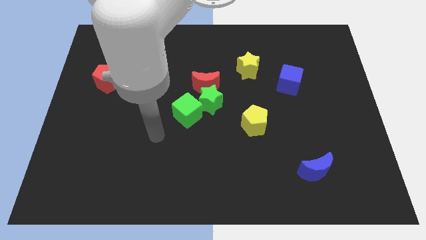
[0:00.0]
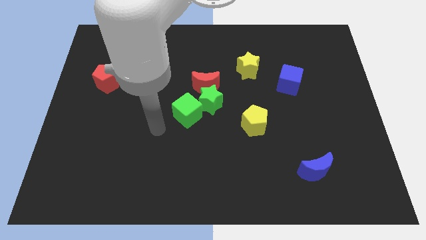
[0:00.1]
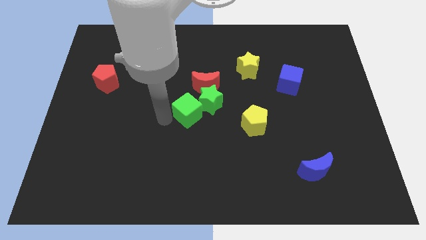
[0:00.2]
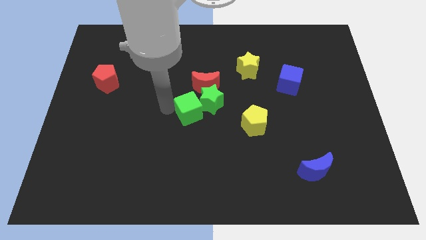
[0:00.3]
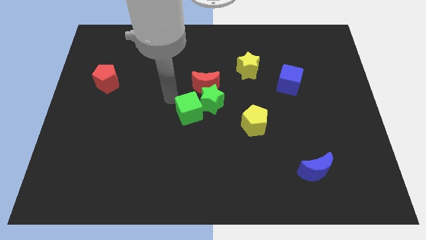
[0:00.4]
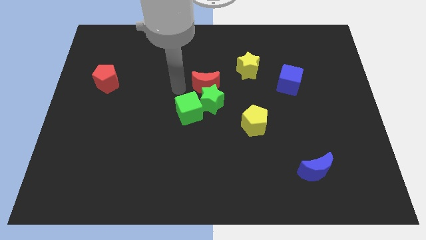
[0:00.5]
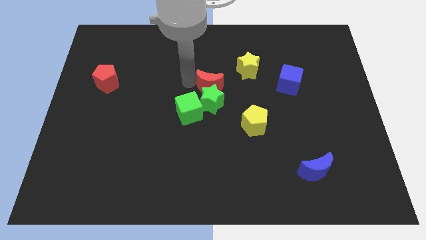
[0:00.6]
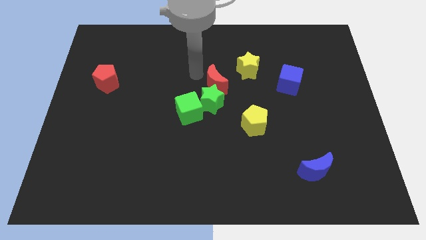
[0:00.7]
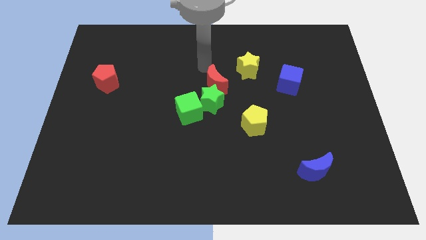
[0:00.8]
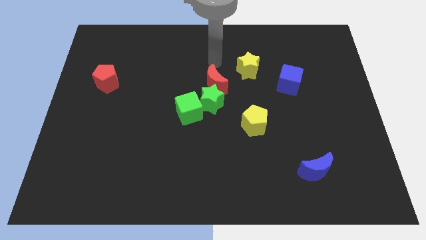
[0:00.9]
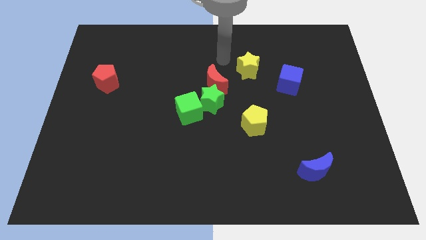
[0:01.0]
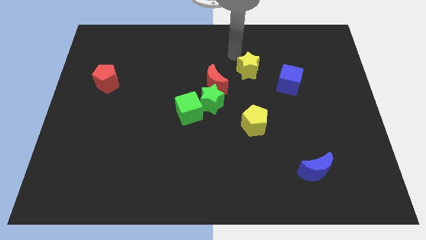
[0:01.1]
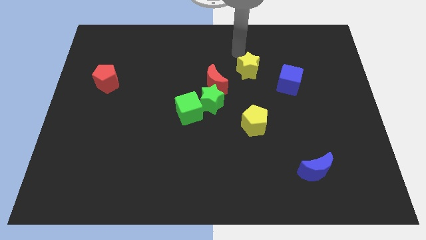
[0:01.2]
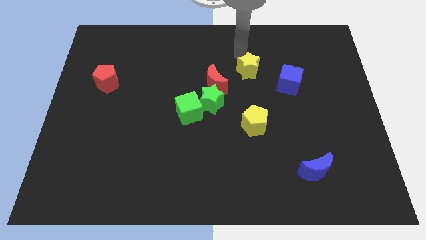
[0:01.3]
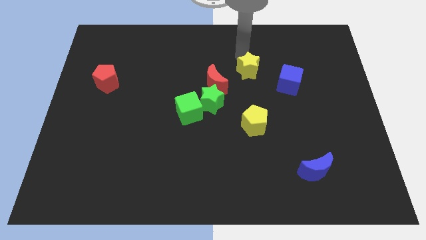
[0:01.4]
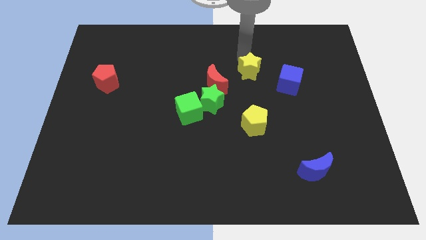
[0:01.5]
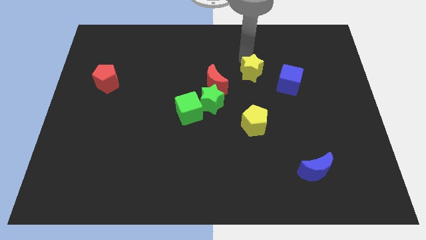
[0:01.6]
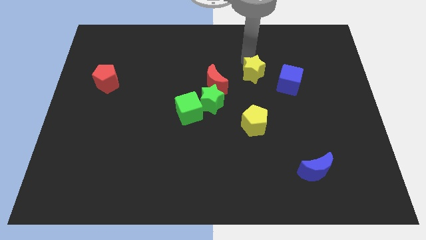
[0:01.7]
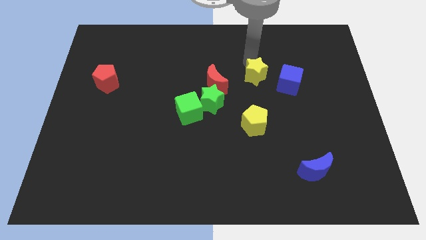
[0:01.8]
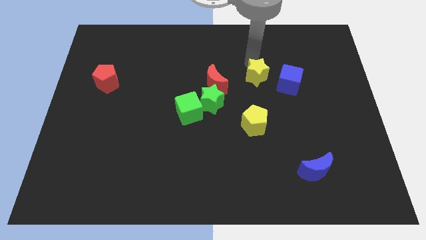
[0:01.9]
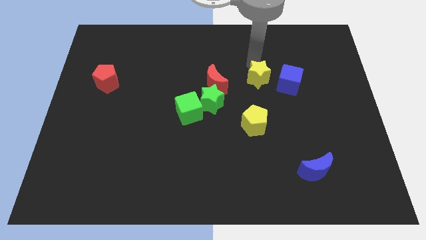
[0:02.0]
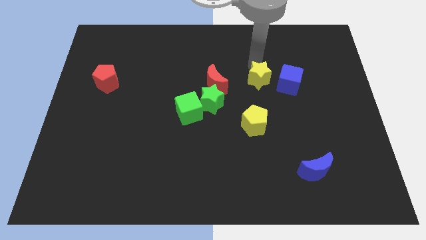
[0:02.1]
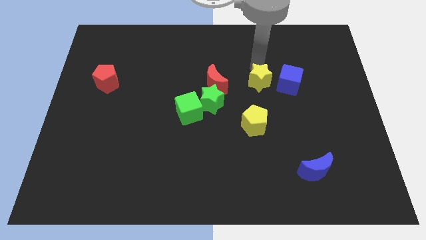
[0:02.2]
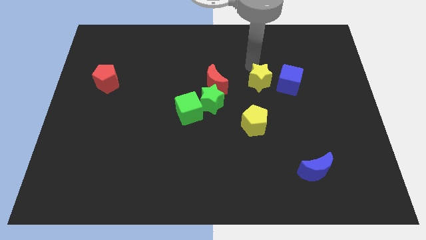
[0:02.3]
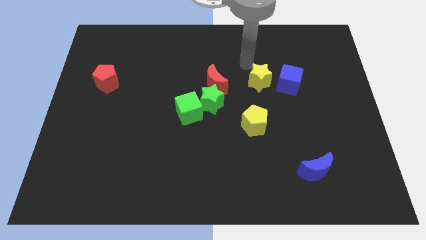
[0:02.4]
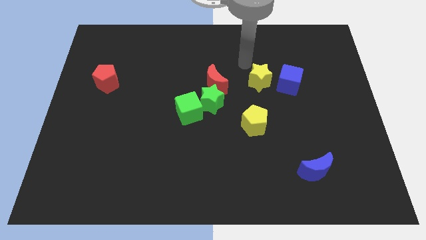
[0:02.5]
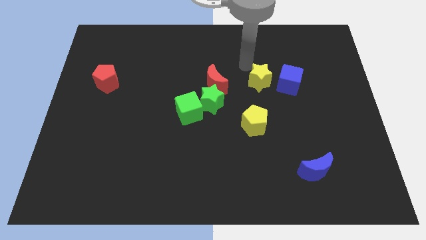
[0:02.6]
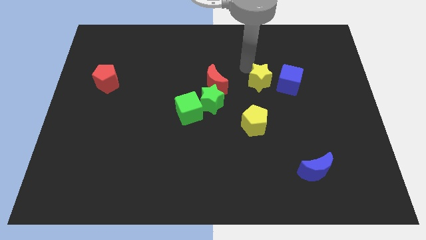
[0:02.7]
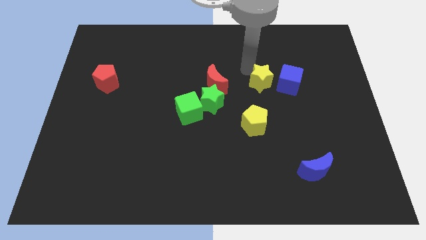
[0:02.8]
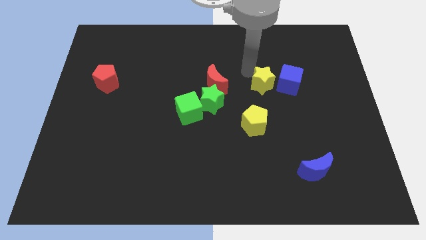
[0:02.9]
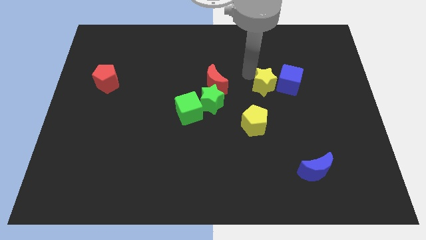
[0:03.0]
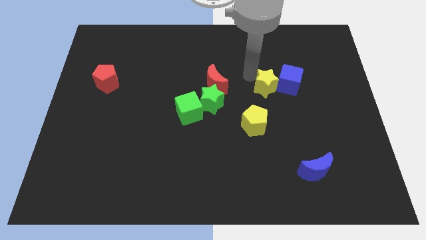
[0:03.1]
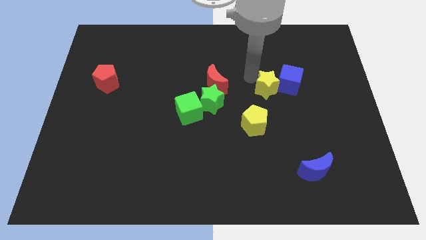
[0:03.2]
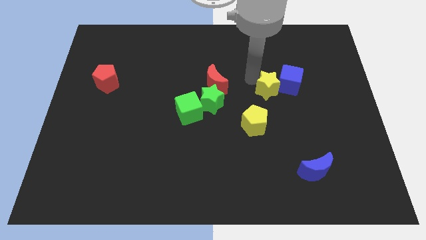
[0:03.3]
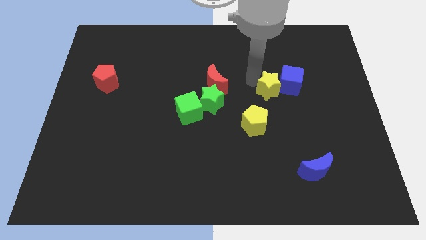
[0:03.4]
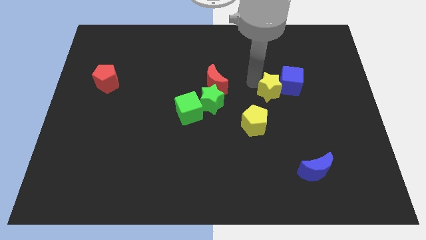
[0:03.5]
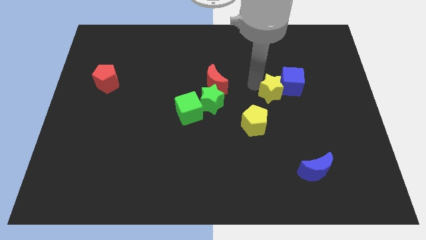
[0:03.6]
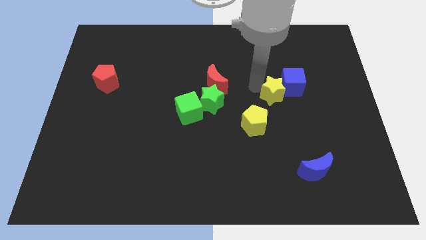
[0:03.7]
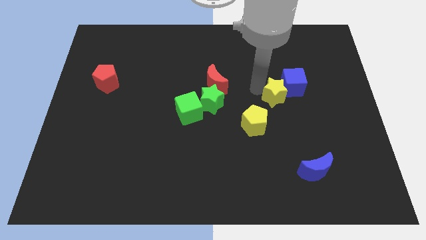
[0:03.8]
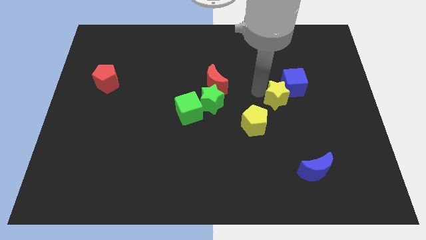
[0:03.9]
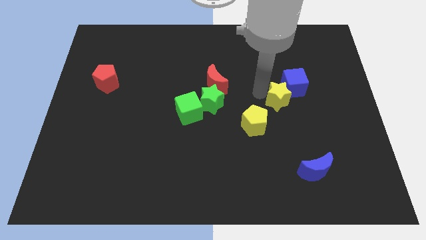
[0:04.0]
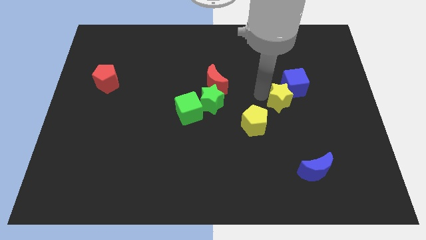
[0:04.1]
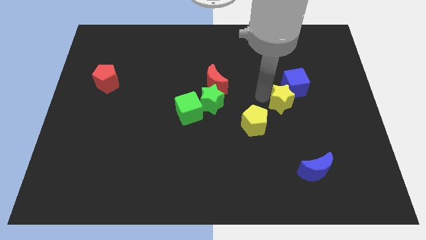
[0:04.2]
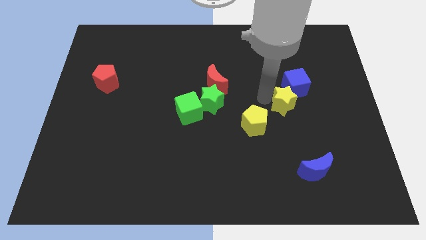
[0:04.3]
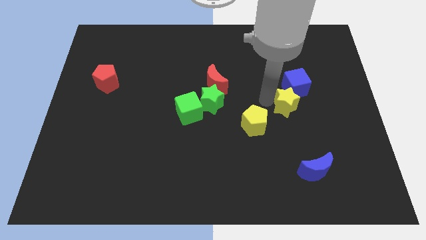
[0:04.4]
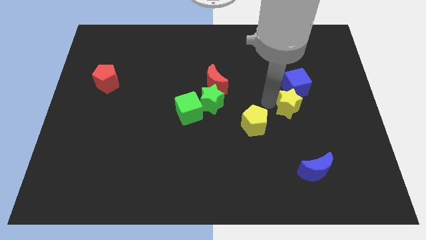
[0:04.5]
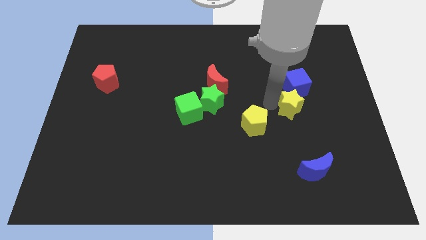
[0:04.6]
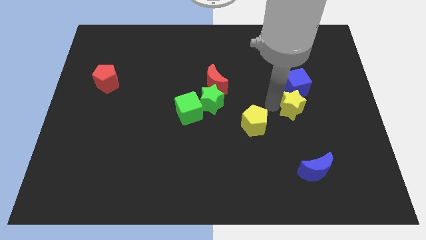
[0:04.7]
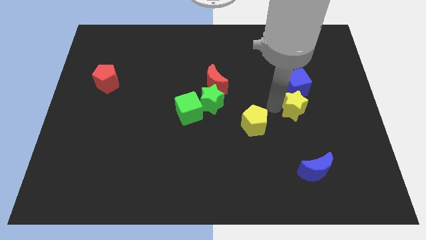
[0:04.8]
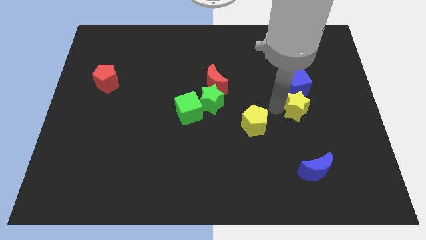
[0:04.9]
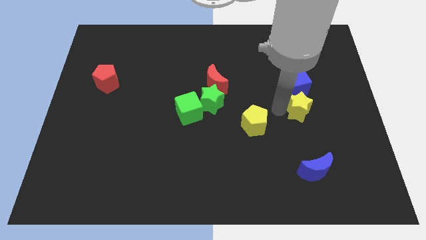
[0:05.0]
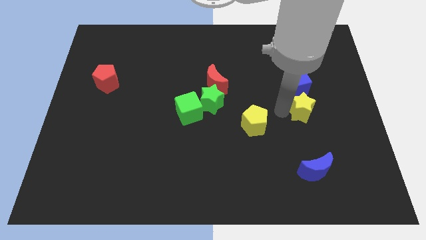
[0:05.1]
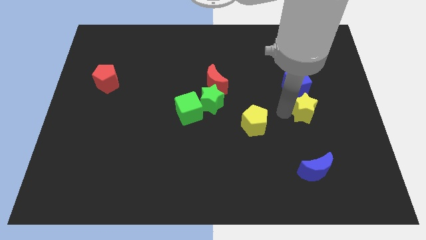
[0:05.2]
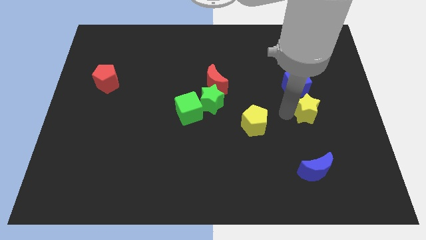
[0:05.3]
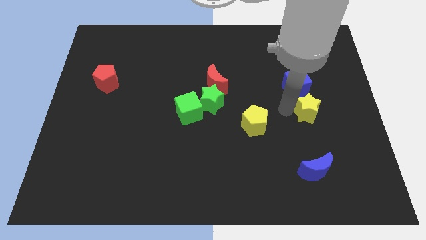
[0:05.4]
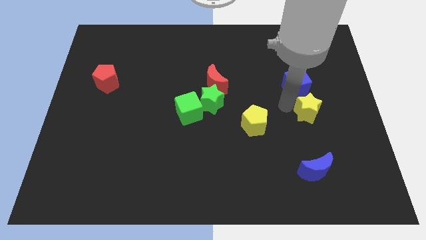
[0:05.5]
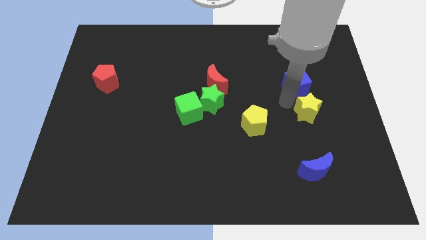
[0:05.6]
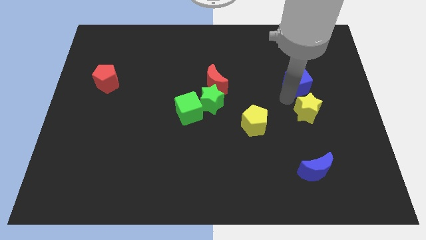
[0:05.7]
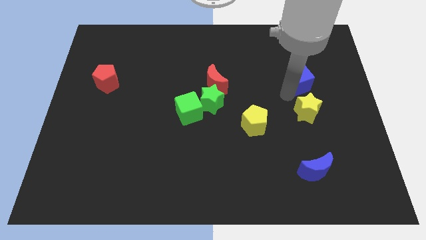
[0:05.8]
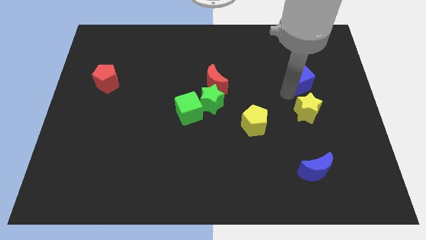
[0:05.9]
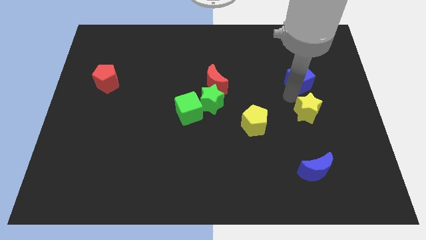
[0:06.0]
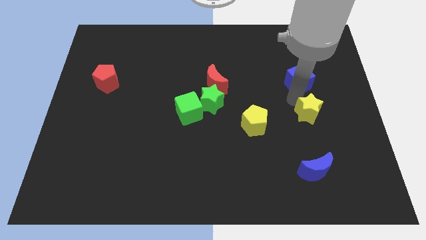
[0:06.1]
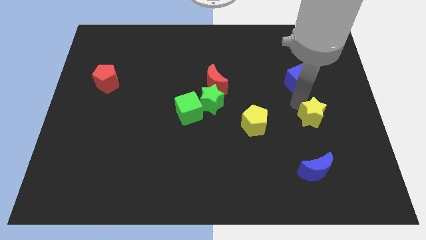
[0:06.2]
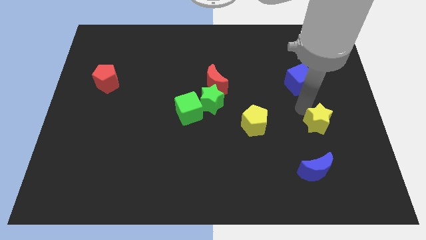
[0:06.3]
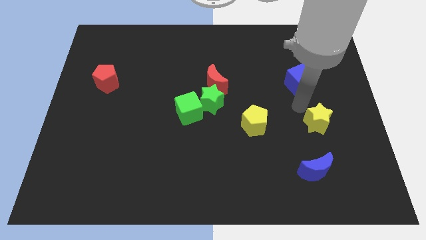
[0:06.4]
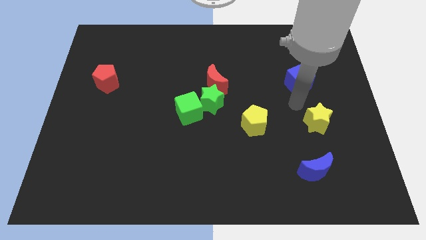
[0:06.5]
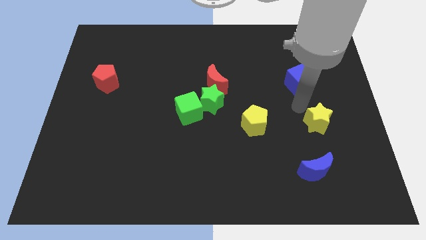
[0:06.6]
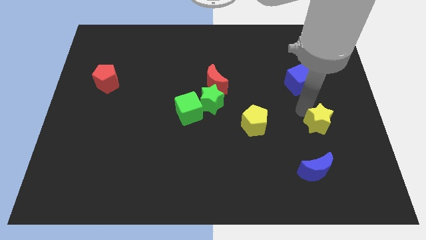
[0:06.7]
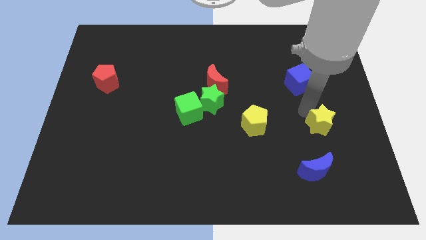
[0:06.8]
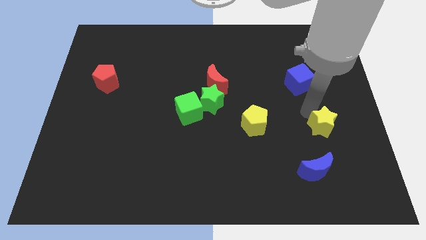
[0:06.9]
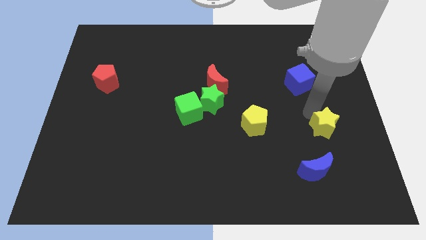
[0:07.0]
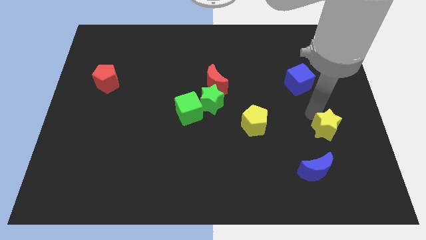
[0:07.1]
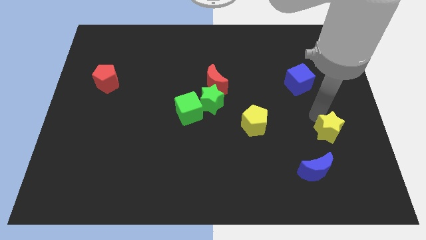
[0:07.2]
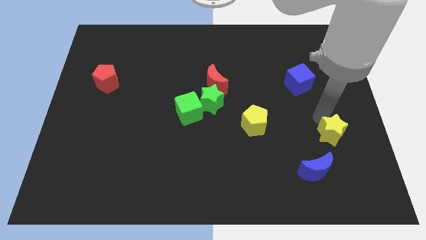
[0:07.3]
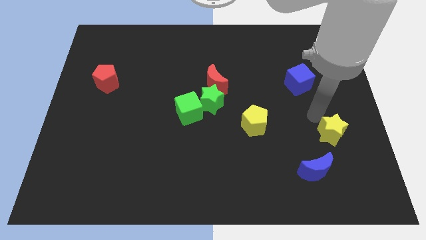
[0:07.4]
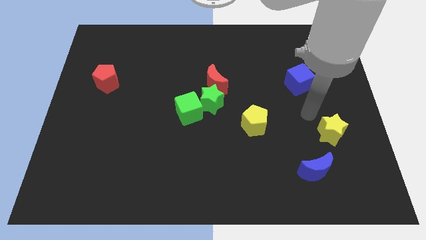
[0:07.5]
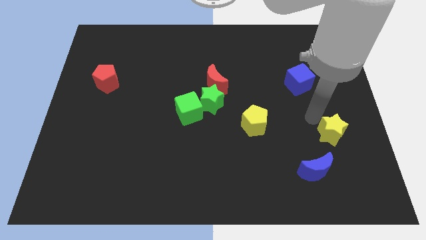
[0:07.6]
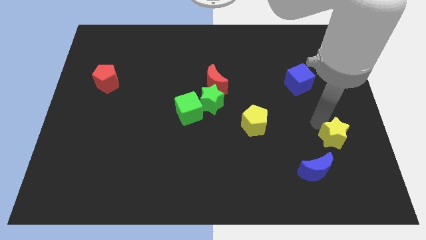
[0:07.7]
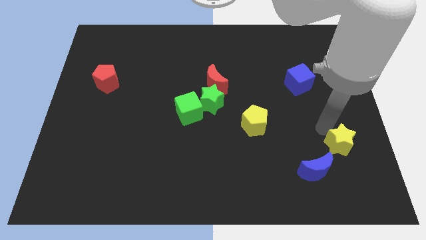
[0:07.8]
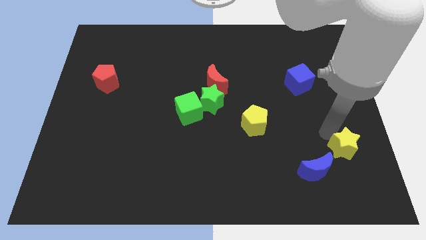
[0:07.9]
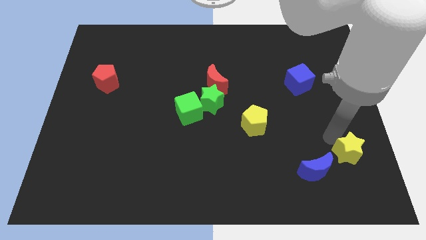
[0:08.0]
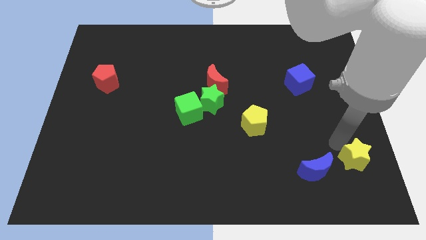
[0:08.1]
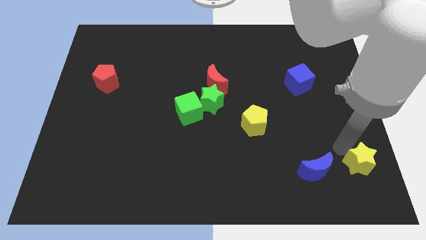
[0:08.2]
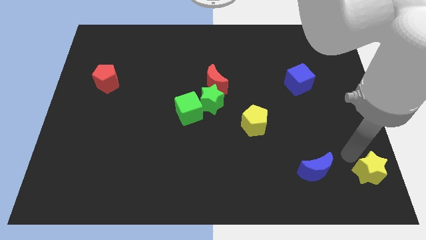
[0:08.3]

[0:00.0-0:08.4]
move the yellow star to the bottom right
